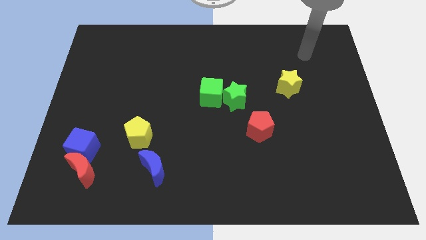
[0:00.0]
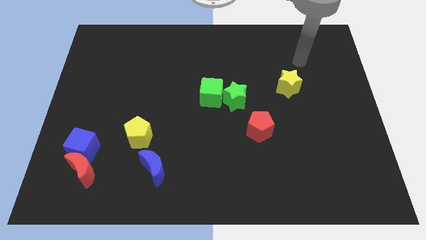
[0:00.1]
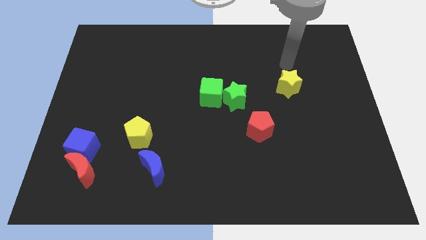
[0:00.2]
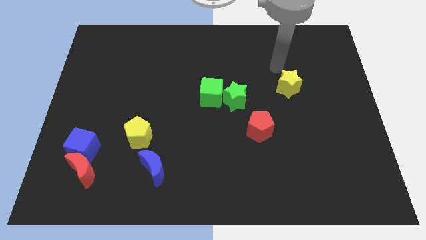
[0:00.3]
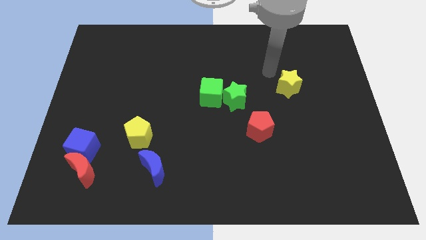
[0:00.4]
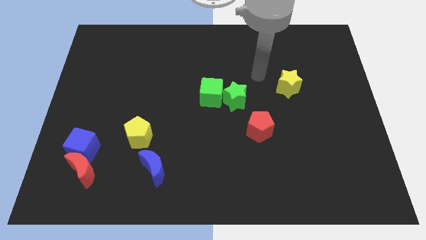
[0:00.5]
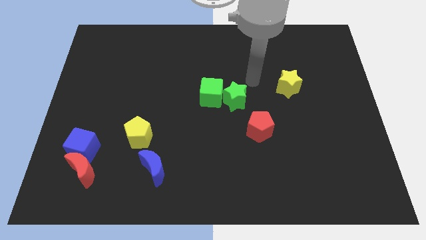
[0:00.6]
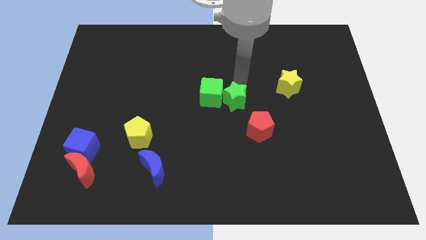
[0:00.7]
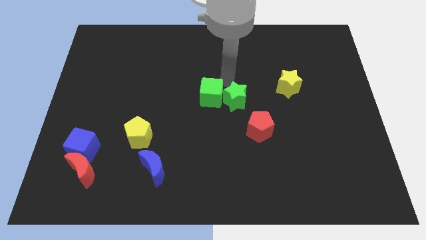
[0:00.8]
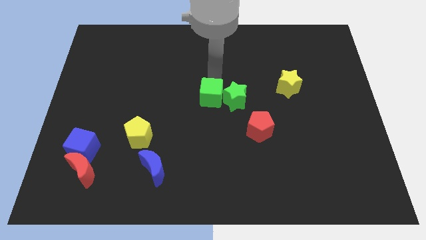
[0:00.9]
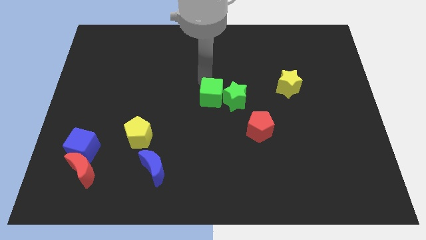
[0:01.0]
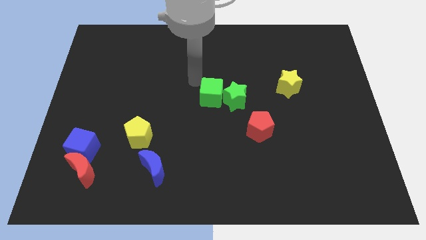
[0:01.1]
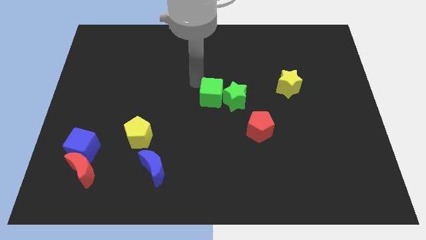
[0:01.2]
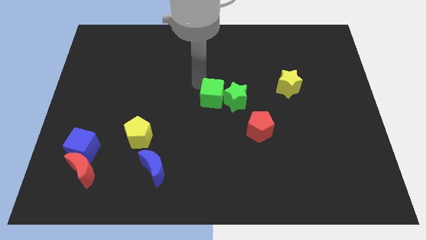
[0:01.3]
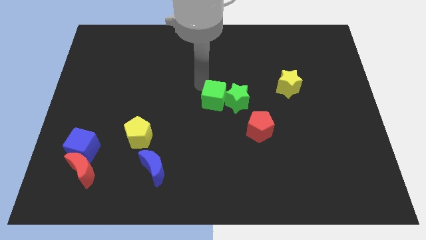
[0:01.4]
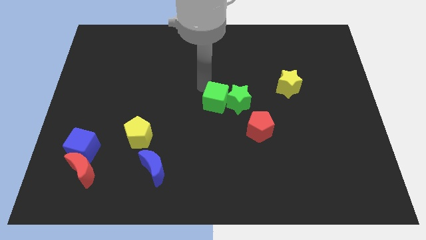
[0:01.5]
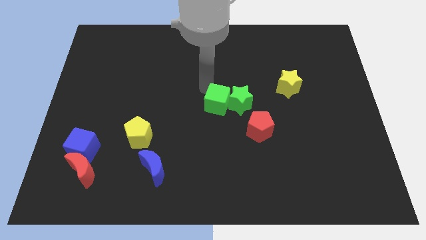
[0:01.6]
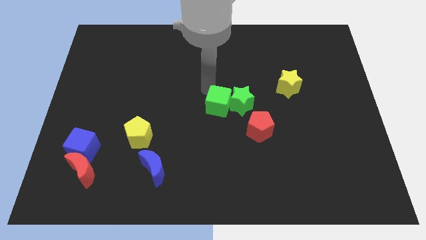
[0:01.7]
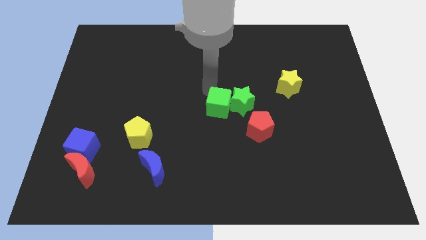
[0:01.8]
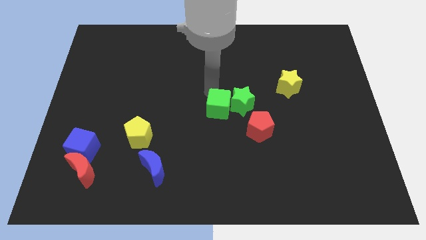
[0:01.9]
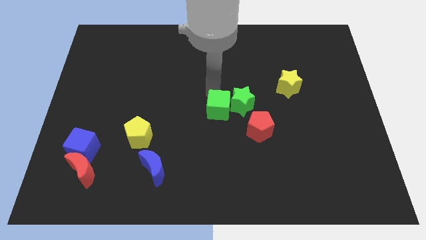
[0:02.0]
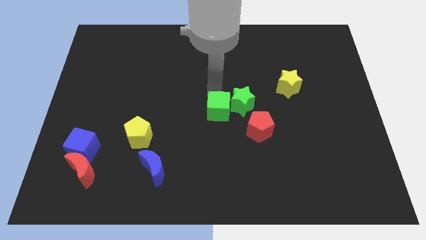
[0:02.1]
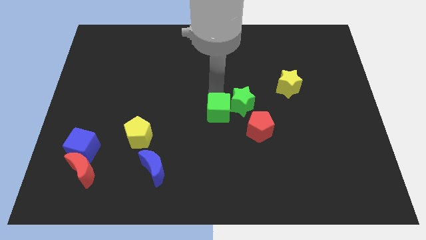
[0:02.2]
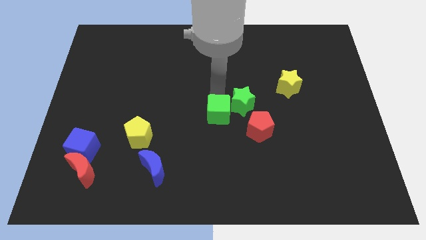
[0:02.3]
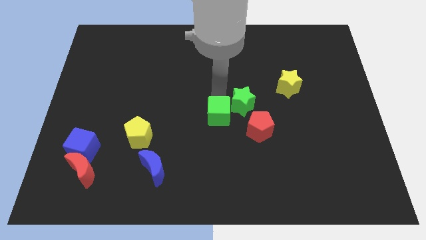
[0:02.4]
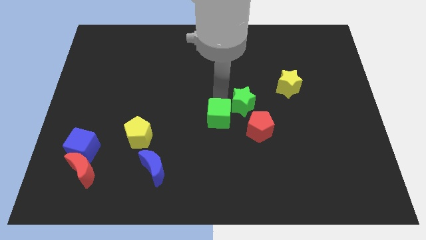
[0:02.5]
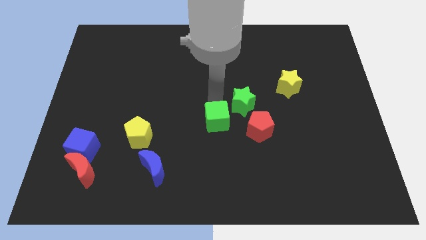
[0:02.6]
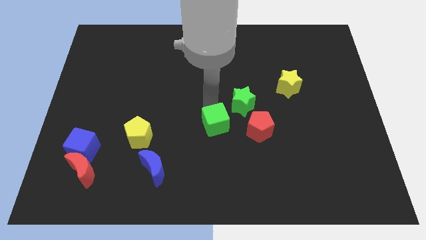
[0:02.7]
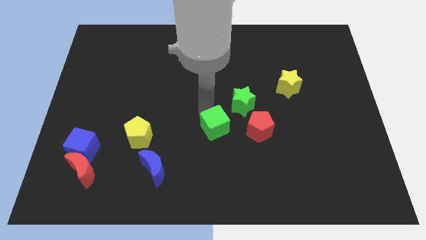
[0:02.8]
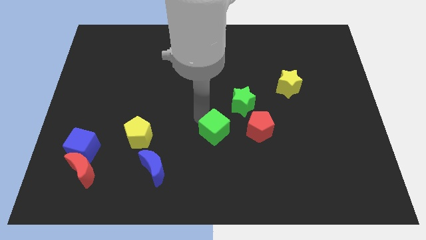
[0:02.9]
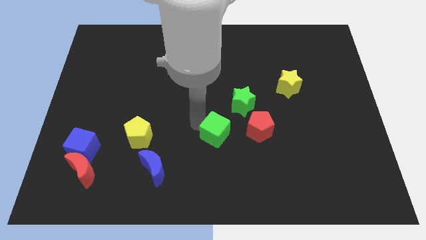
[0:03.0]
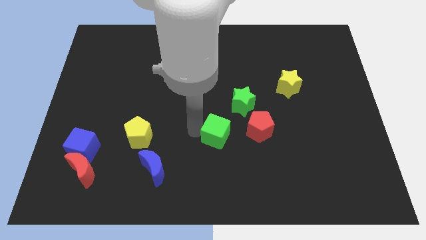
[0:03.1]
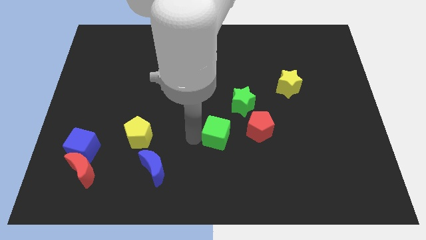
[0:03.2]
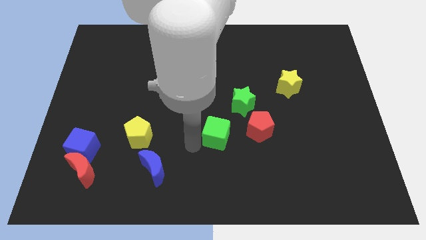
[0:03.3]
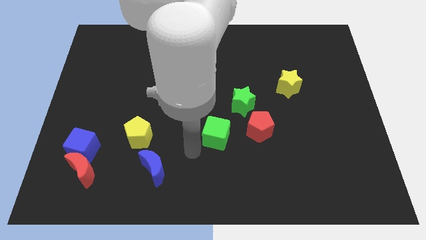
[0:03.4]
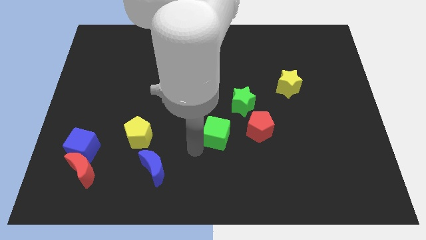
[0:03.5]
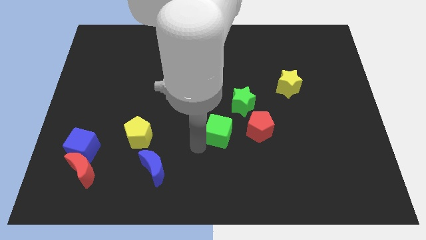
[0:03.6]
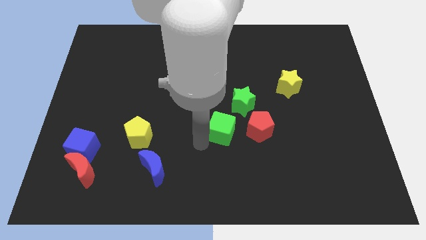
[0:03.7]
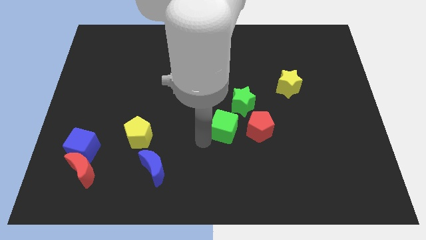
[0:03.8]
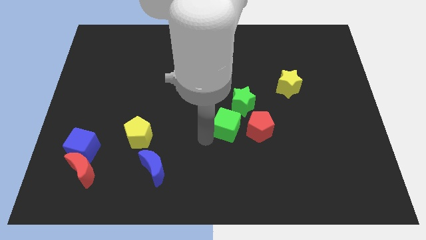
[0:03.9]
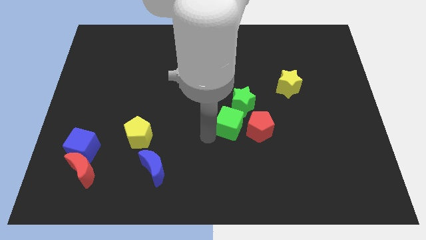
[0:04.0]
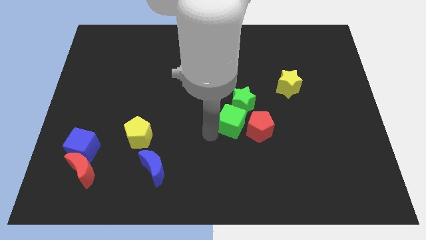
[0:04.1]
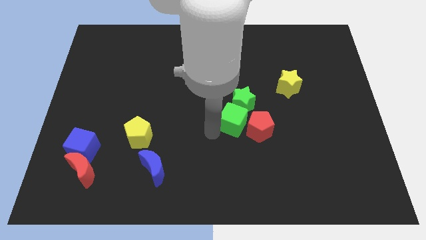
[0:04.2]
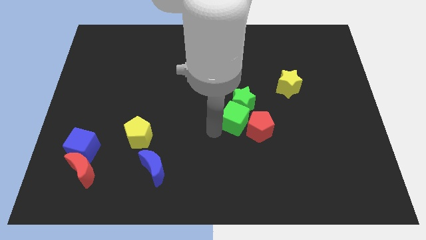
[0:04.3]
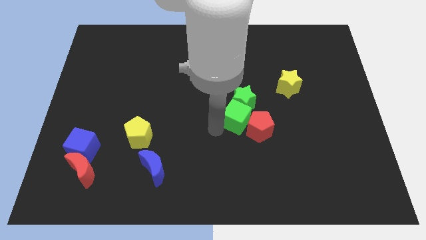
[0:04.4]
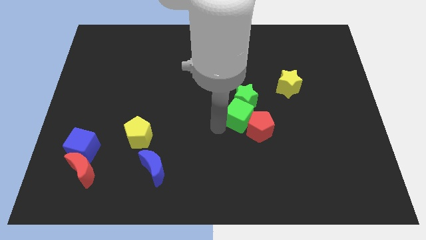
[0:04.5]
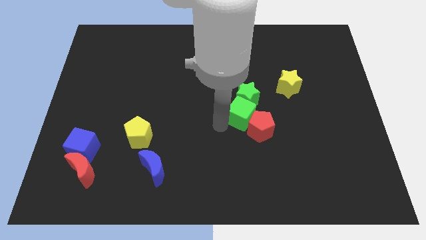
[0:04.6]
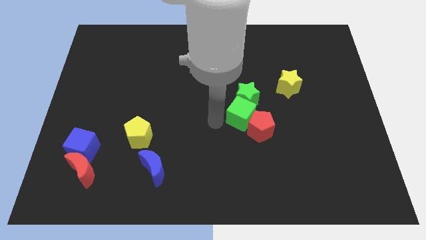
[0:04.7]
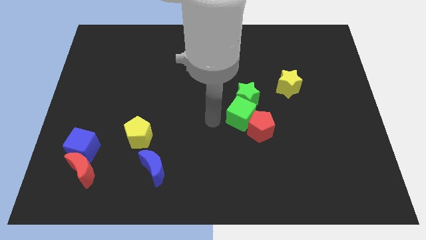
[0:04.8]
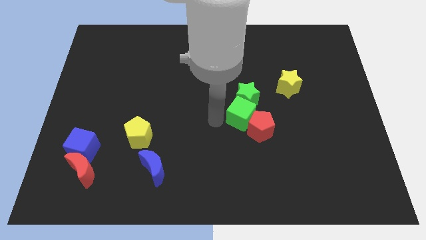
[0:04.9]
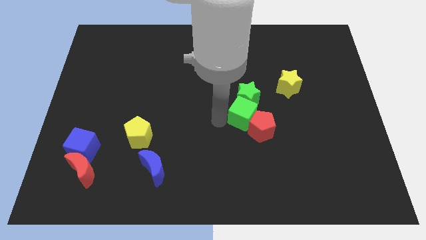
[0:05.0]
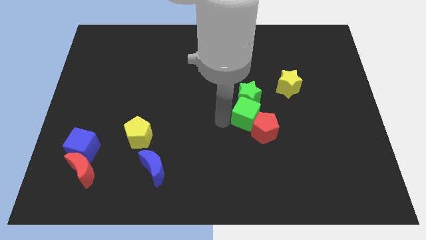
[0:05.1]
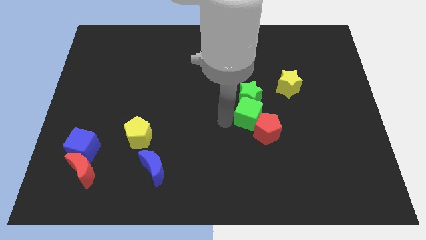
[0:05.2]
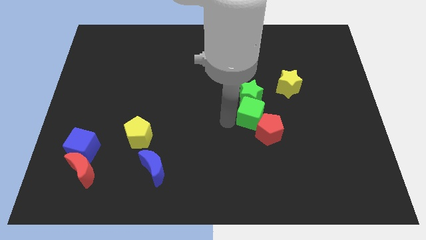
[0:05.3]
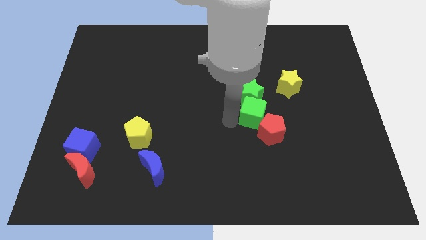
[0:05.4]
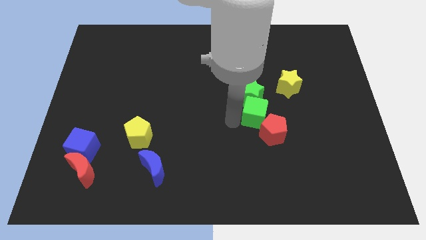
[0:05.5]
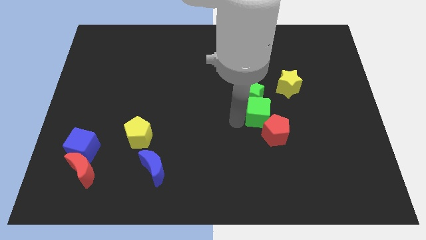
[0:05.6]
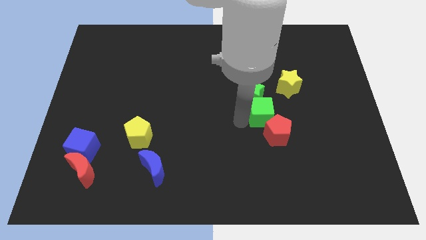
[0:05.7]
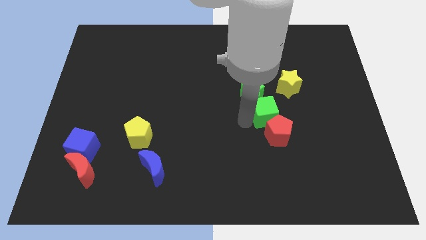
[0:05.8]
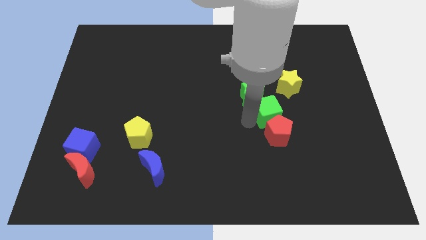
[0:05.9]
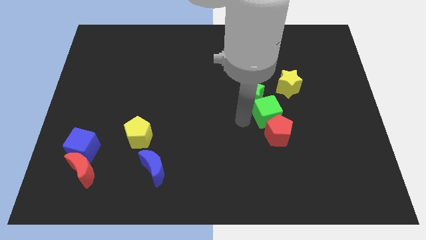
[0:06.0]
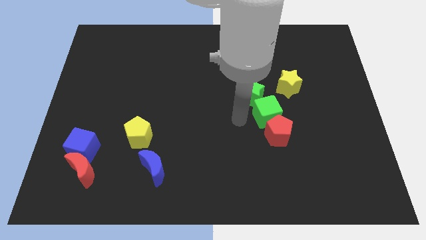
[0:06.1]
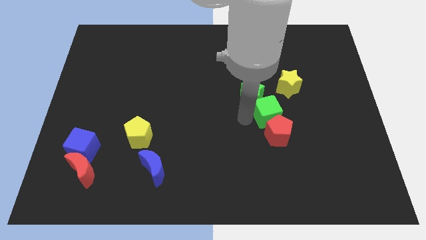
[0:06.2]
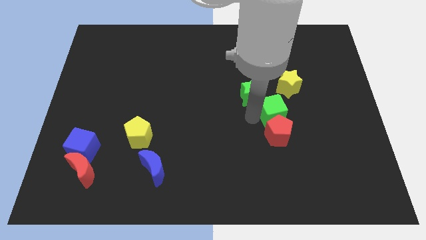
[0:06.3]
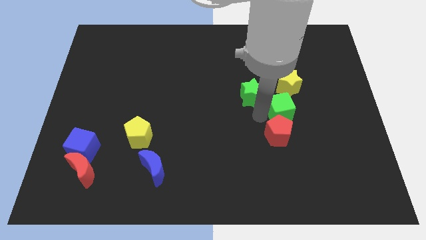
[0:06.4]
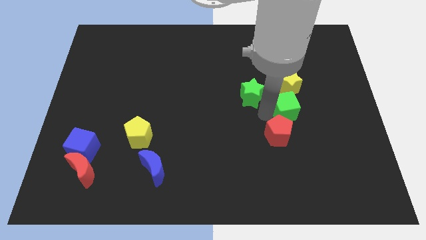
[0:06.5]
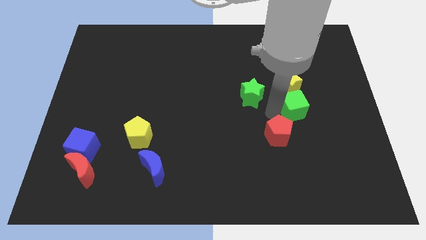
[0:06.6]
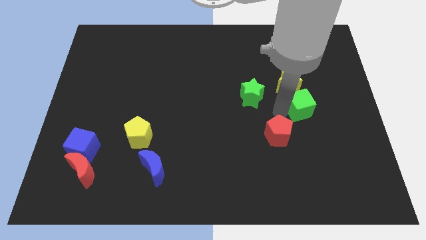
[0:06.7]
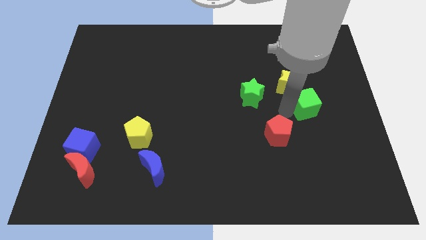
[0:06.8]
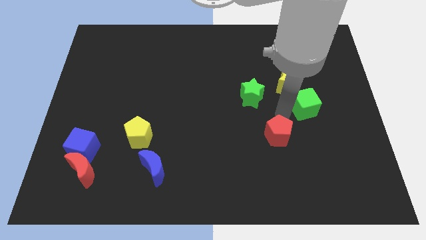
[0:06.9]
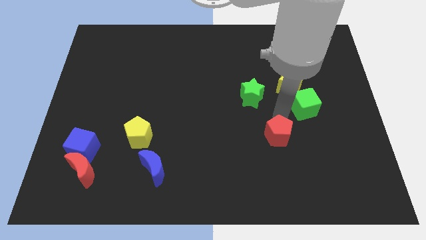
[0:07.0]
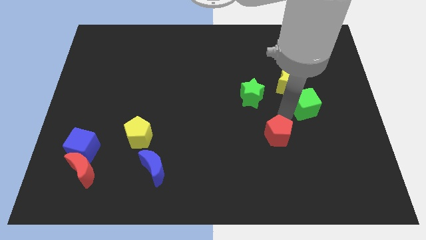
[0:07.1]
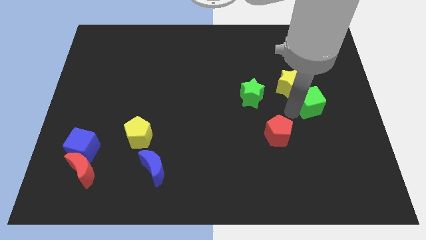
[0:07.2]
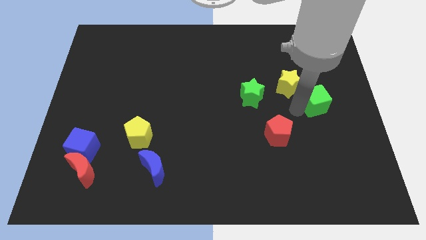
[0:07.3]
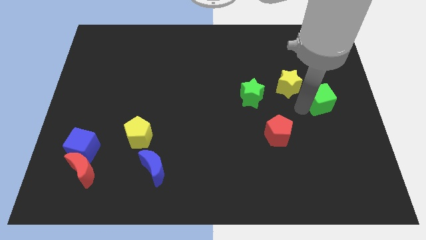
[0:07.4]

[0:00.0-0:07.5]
put the green cube to the right side of the board
